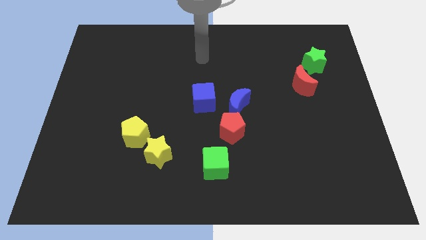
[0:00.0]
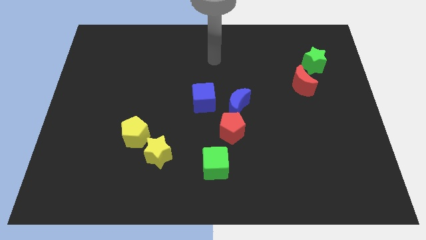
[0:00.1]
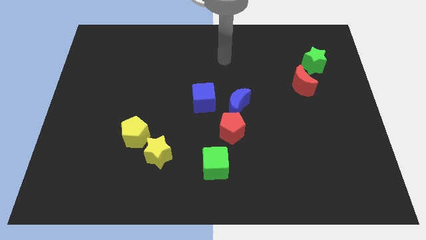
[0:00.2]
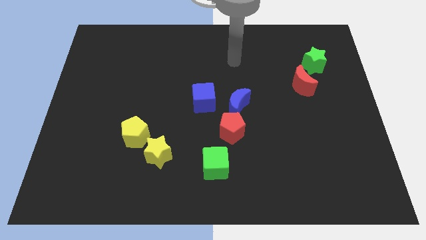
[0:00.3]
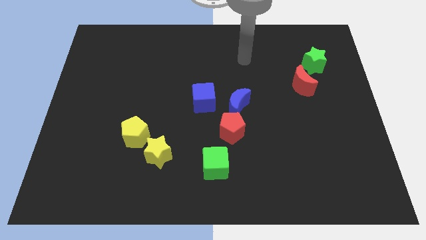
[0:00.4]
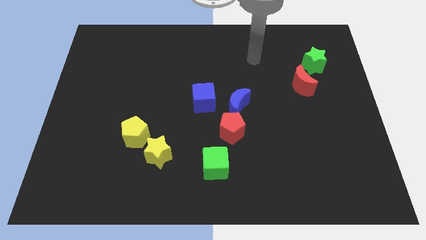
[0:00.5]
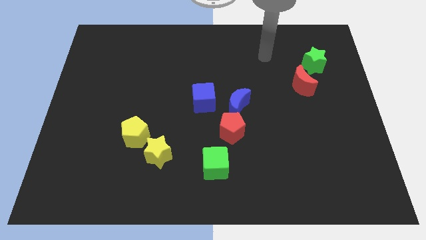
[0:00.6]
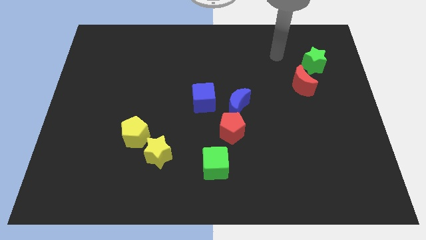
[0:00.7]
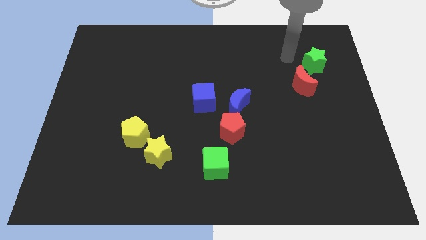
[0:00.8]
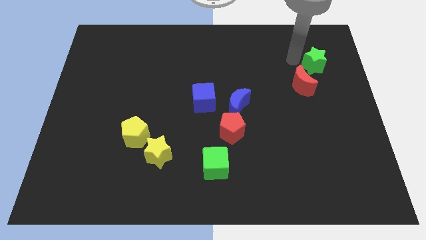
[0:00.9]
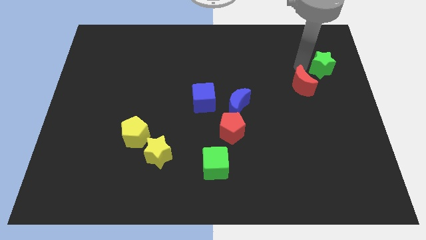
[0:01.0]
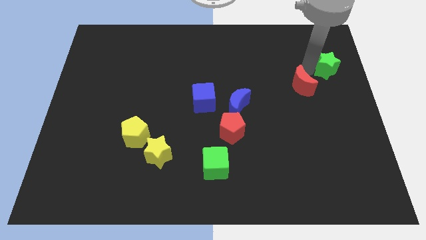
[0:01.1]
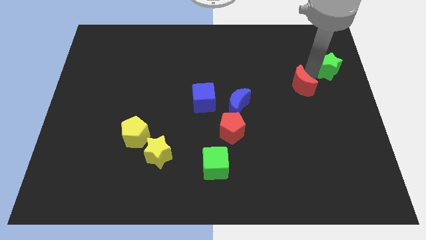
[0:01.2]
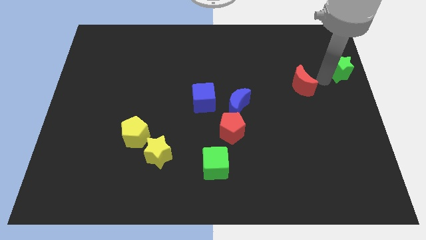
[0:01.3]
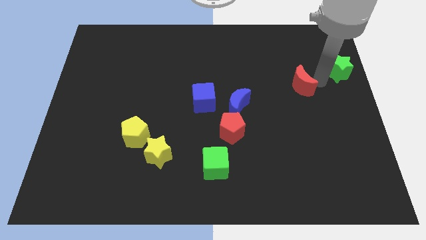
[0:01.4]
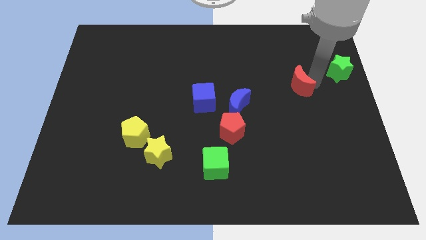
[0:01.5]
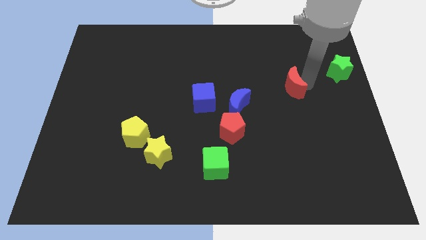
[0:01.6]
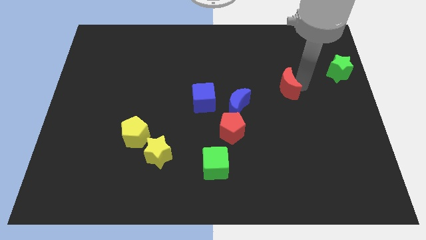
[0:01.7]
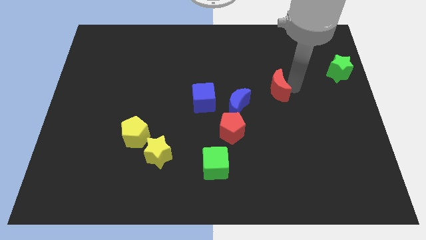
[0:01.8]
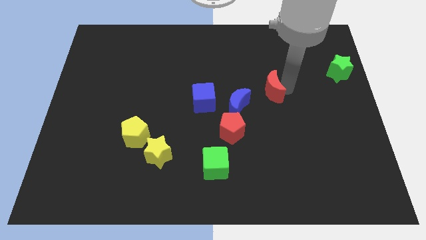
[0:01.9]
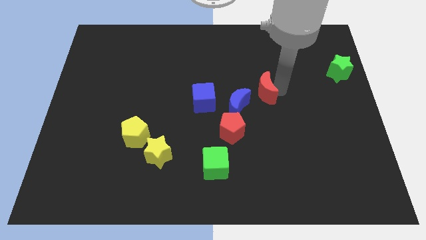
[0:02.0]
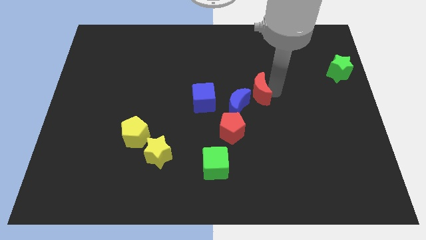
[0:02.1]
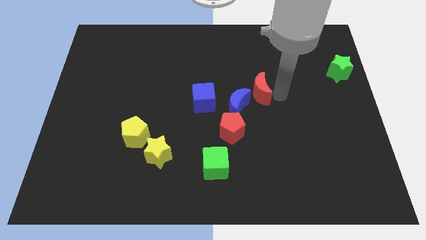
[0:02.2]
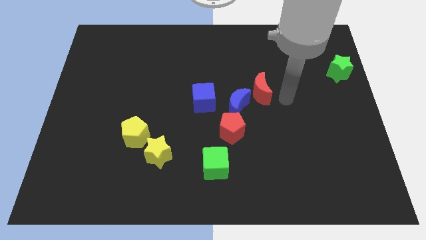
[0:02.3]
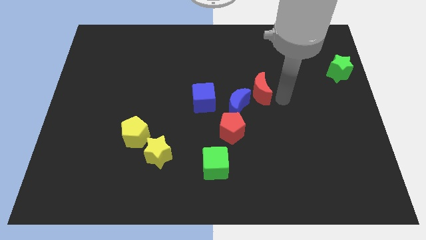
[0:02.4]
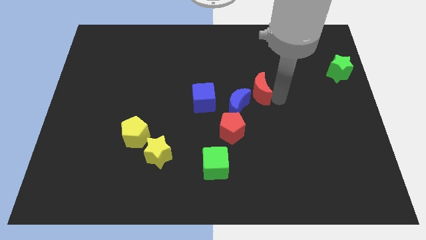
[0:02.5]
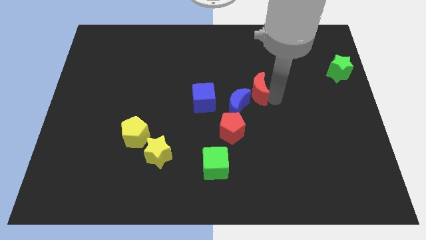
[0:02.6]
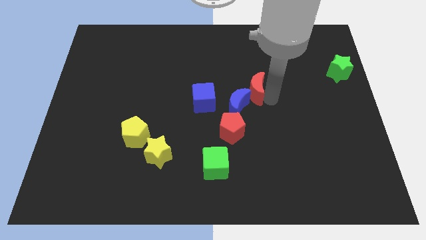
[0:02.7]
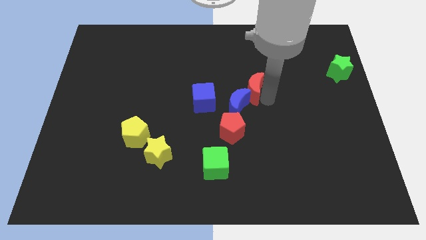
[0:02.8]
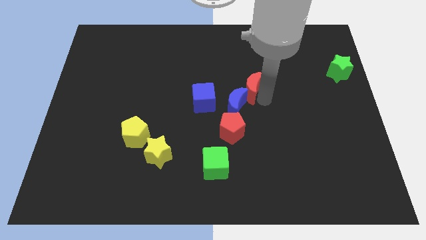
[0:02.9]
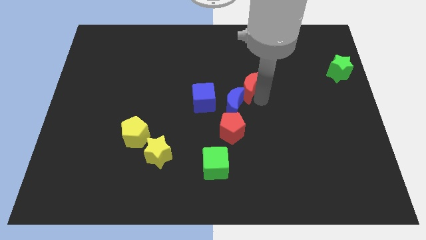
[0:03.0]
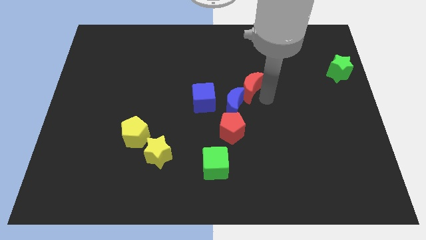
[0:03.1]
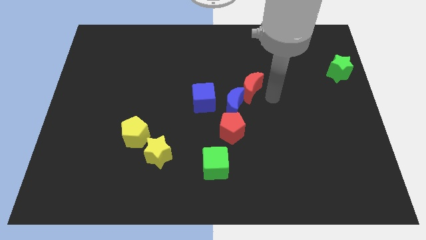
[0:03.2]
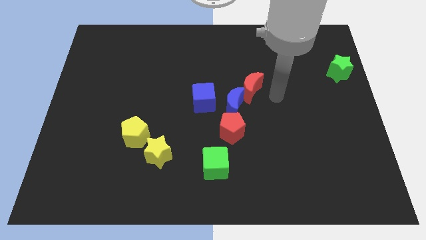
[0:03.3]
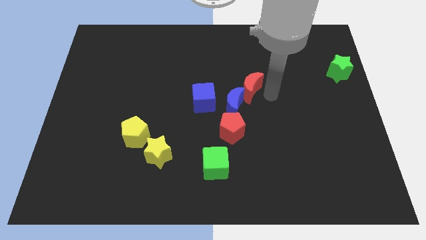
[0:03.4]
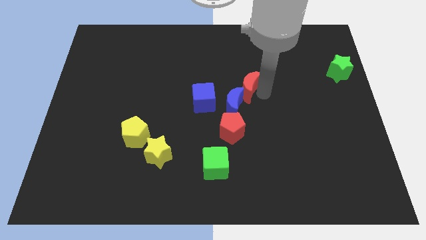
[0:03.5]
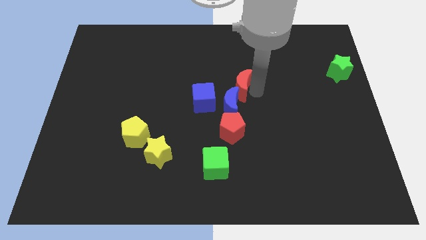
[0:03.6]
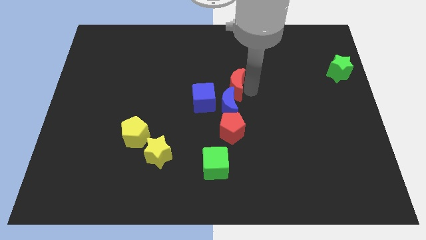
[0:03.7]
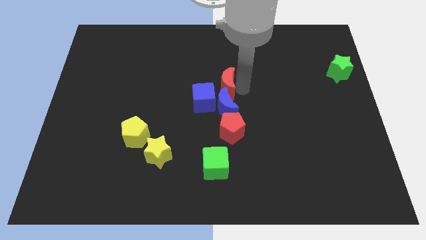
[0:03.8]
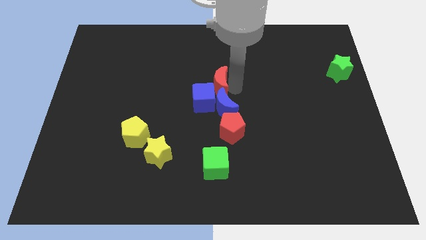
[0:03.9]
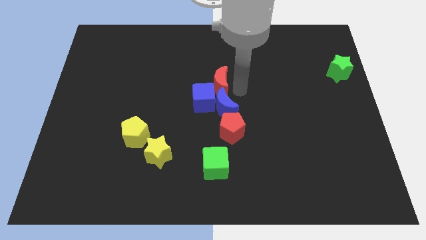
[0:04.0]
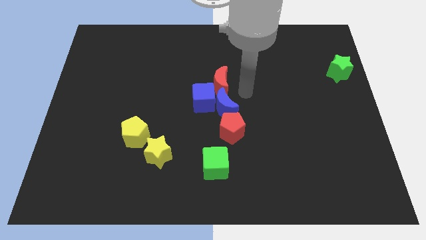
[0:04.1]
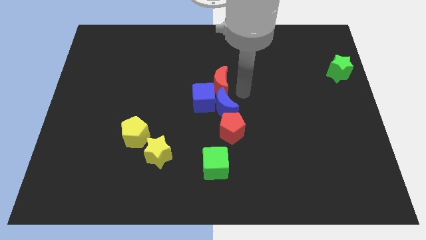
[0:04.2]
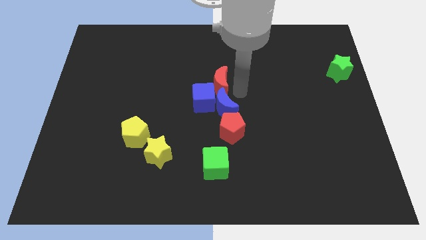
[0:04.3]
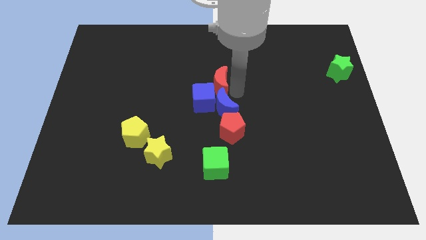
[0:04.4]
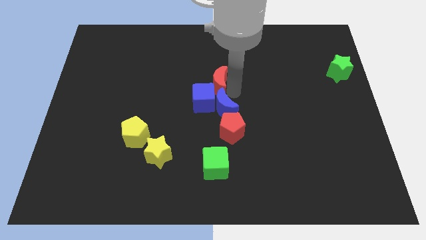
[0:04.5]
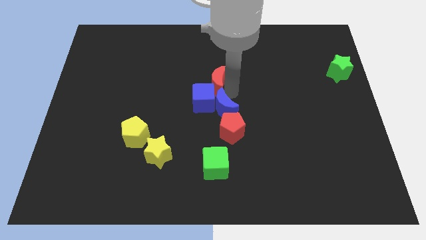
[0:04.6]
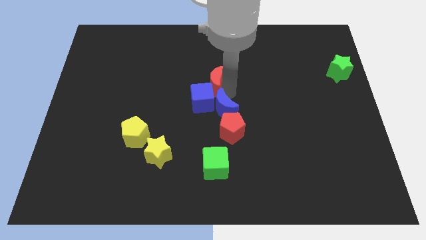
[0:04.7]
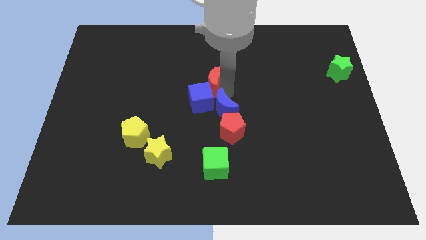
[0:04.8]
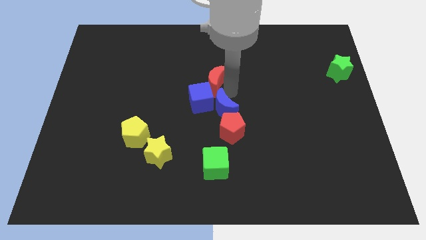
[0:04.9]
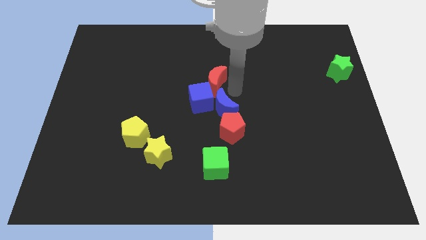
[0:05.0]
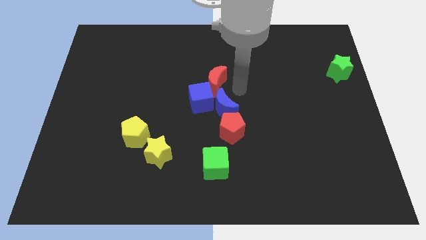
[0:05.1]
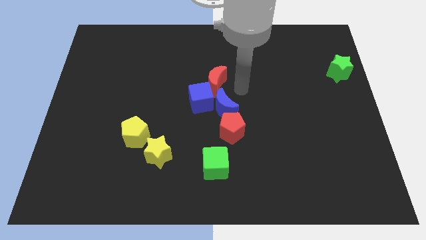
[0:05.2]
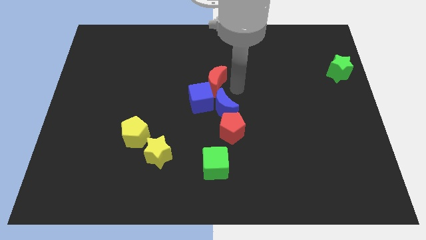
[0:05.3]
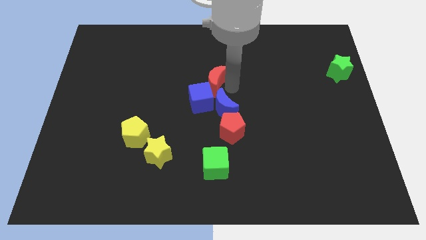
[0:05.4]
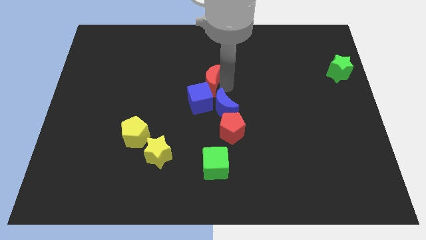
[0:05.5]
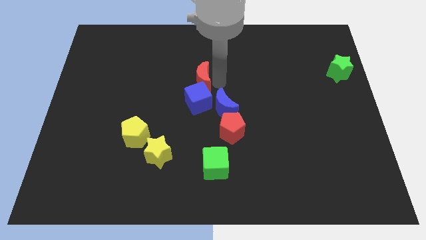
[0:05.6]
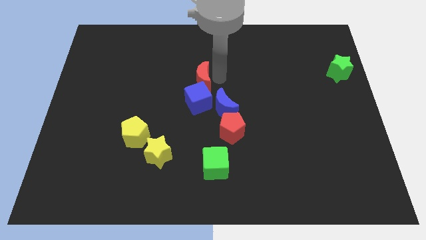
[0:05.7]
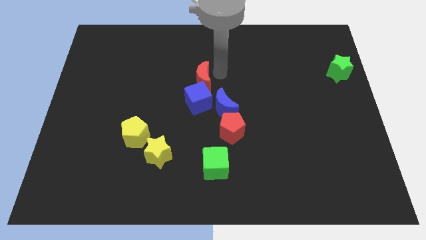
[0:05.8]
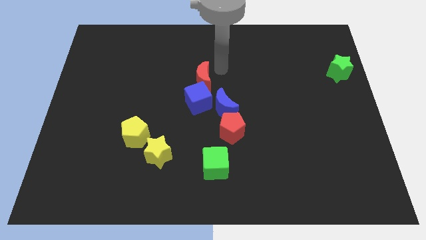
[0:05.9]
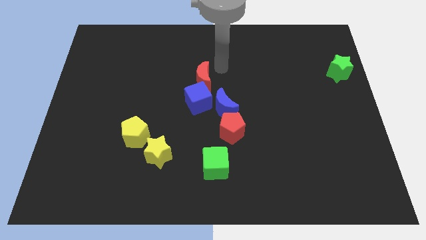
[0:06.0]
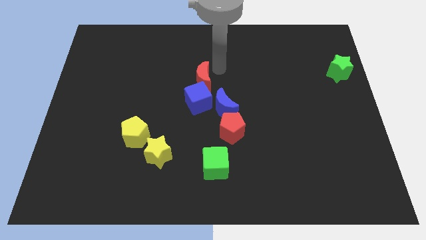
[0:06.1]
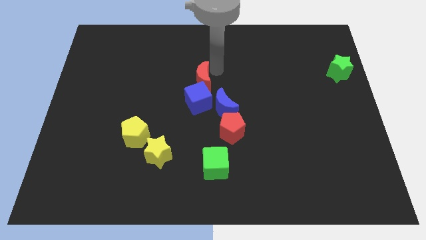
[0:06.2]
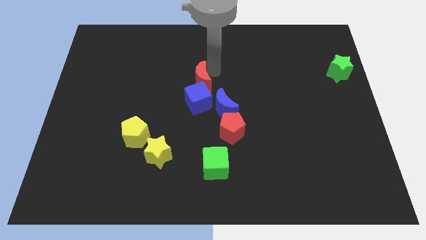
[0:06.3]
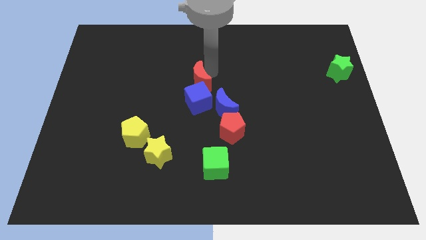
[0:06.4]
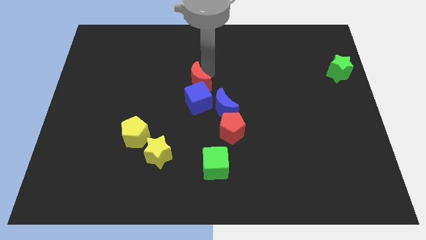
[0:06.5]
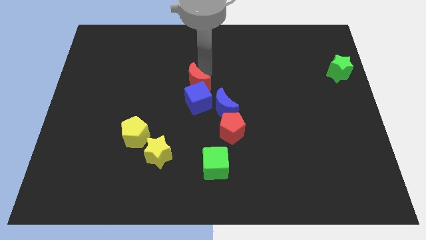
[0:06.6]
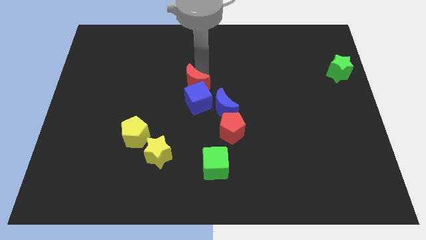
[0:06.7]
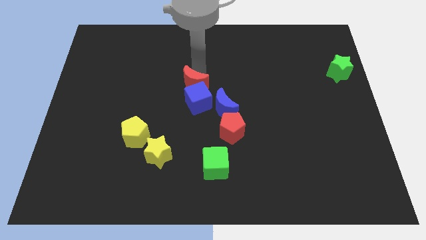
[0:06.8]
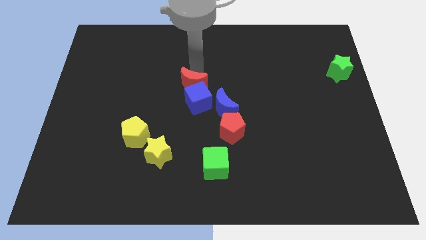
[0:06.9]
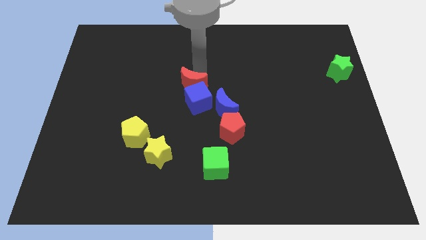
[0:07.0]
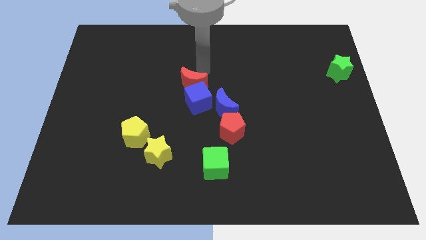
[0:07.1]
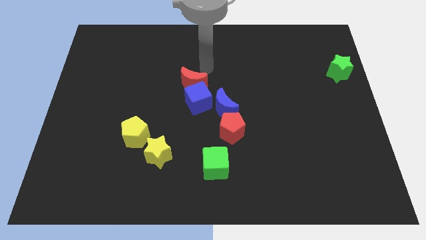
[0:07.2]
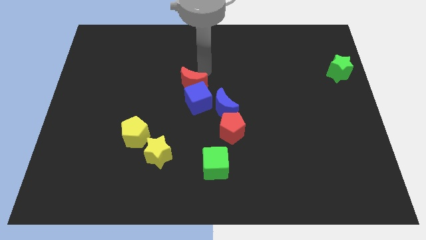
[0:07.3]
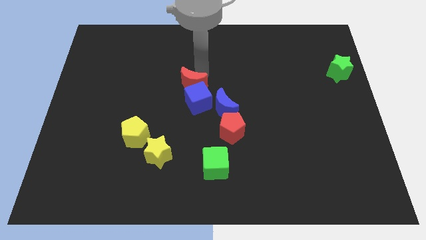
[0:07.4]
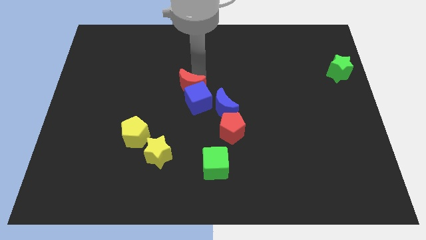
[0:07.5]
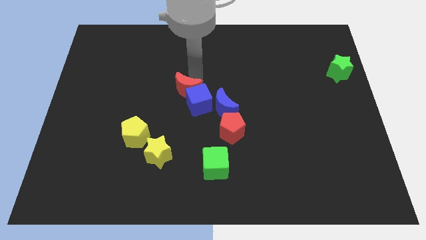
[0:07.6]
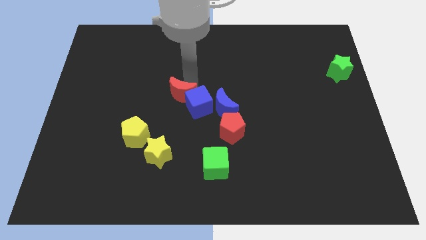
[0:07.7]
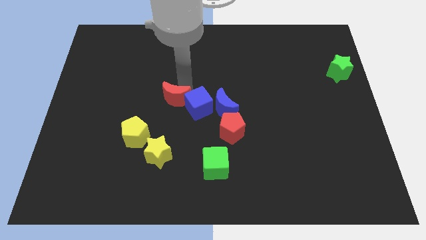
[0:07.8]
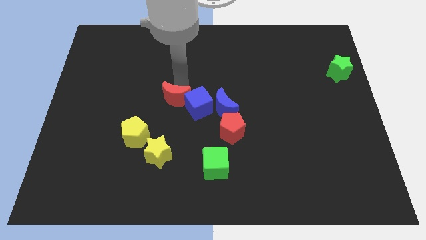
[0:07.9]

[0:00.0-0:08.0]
move the red moon above the yellow star
